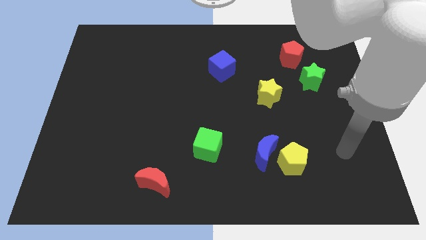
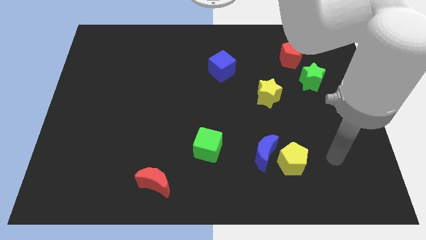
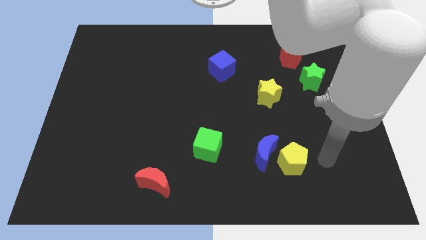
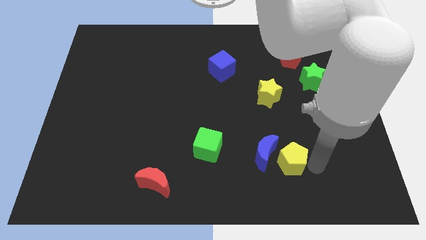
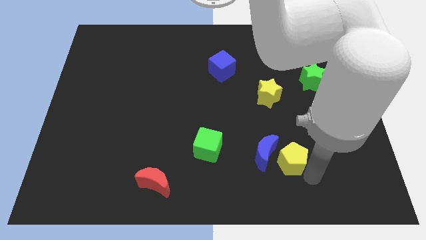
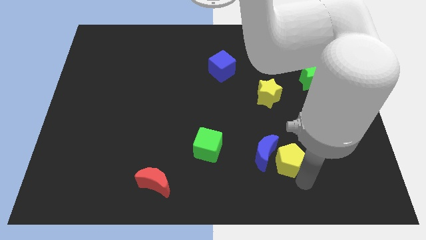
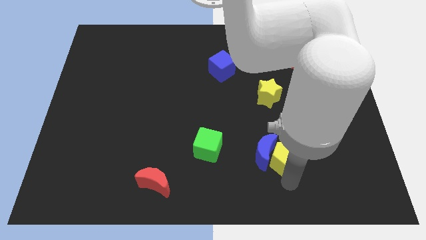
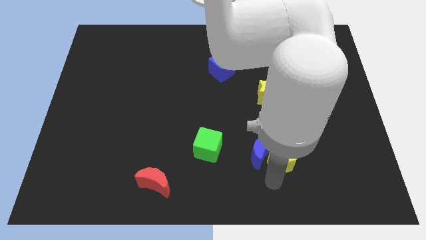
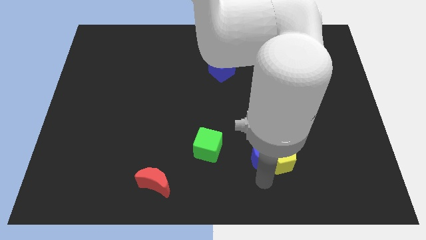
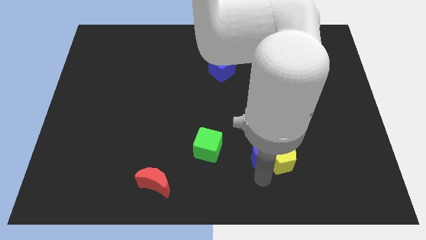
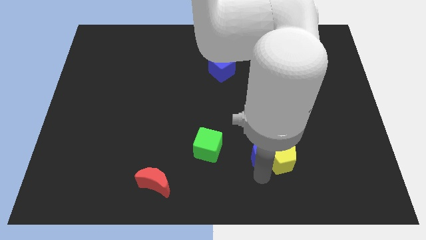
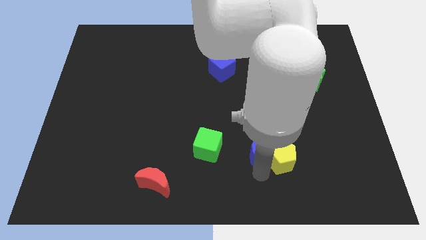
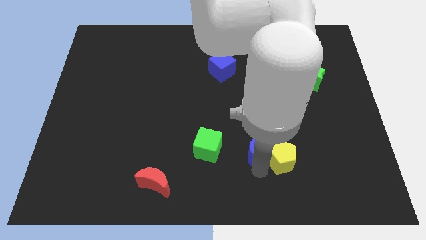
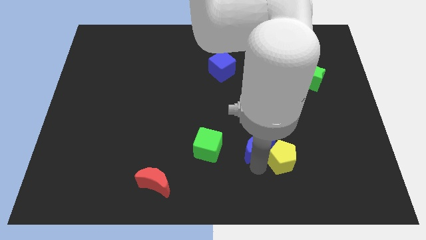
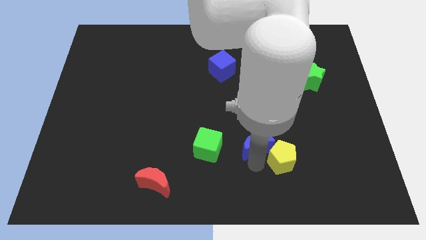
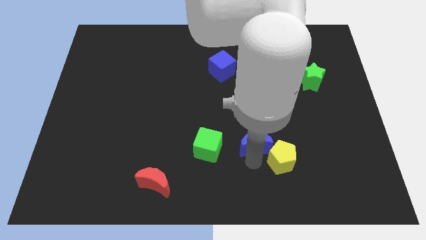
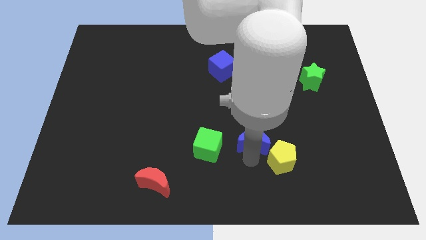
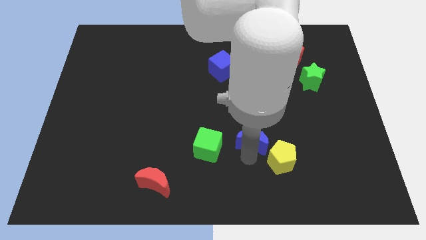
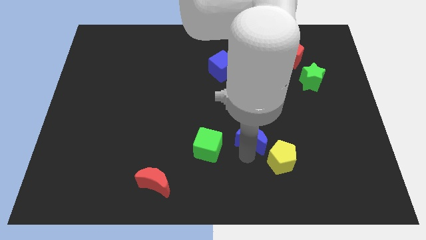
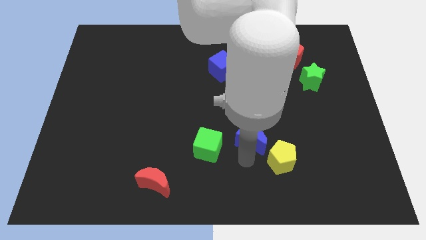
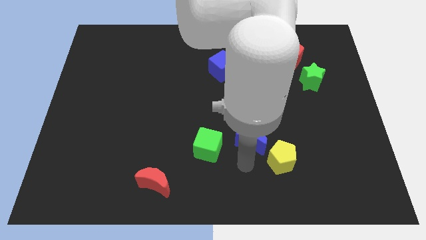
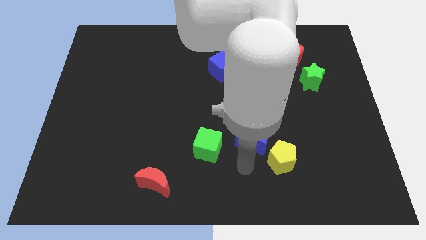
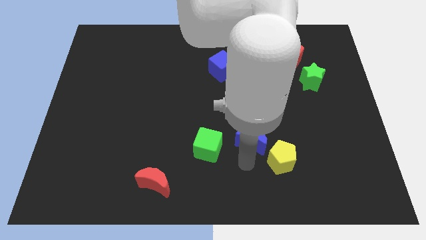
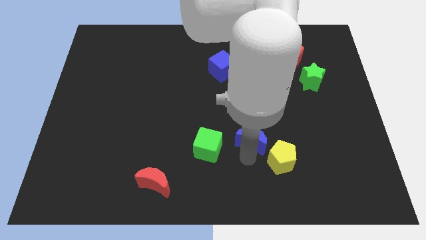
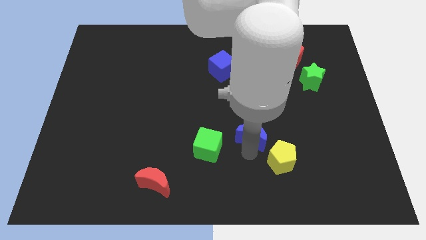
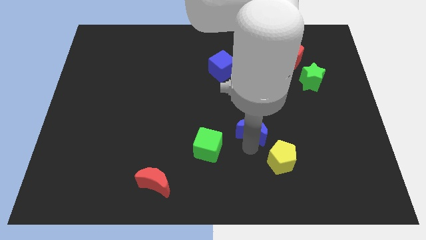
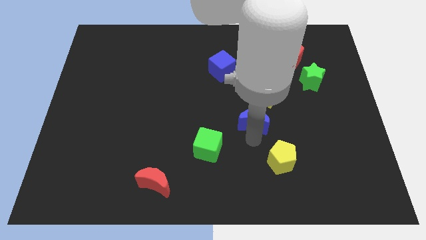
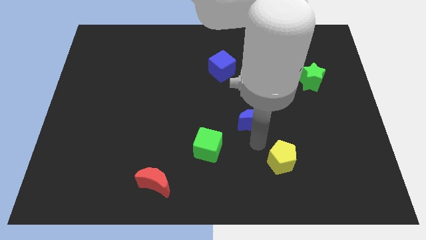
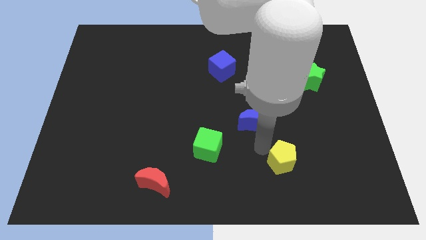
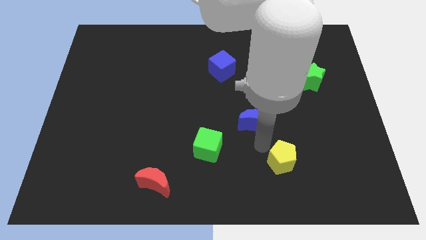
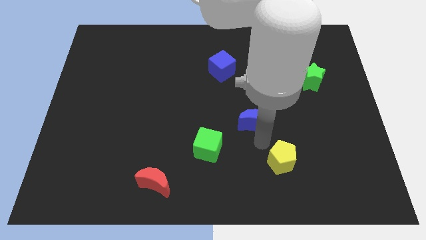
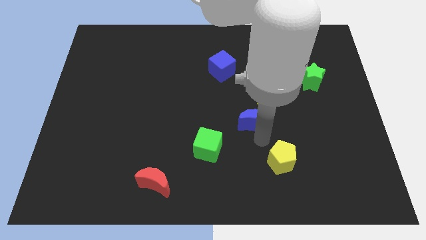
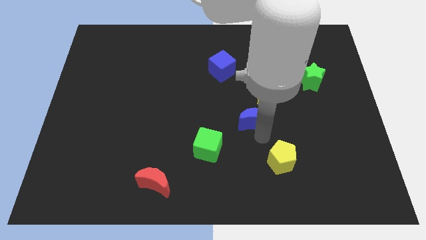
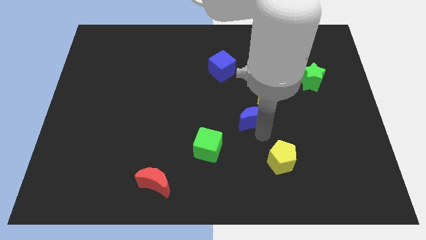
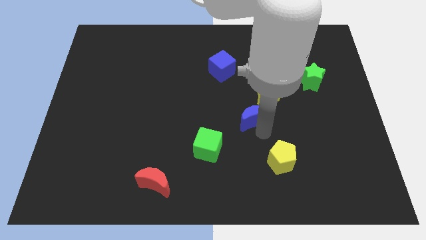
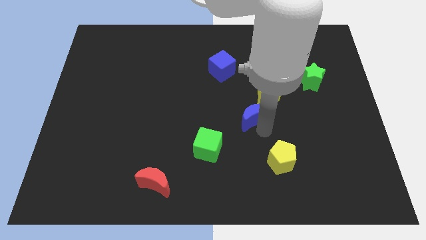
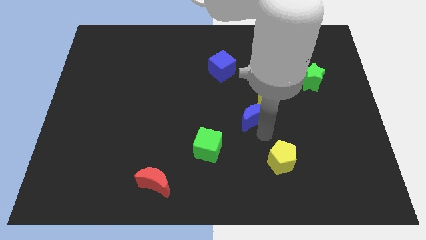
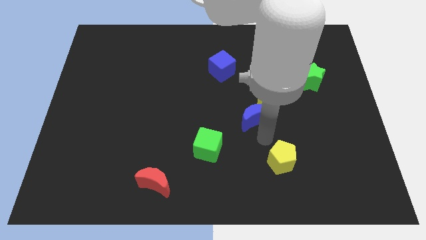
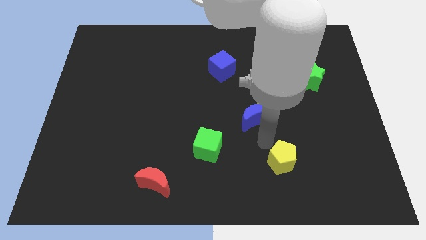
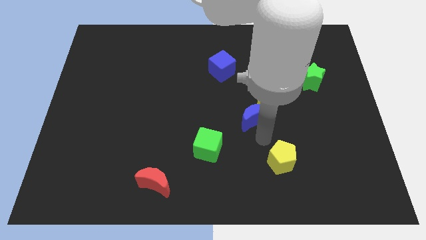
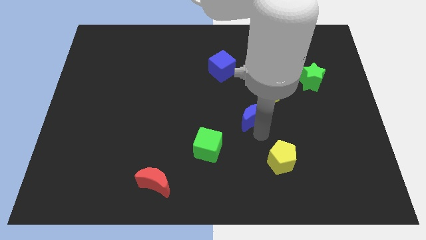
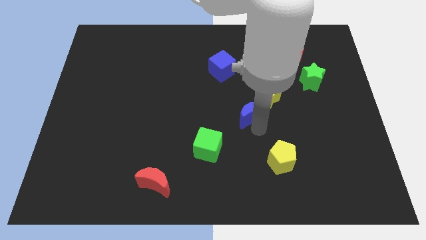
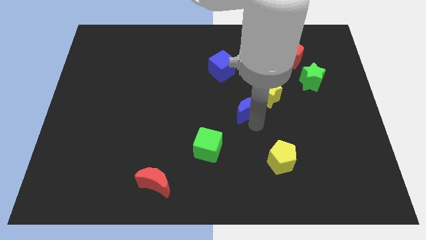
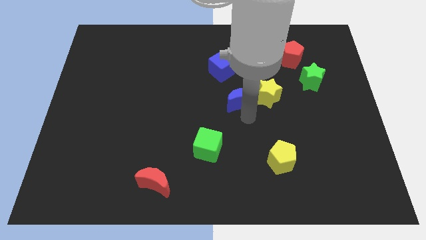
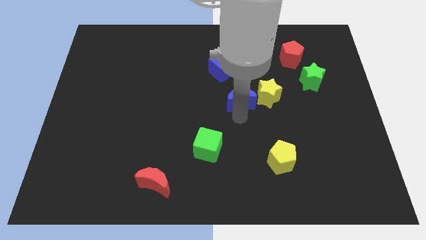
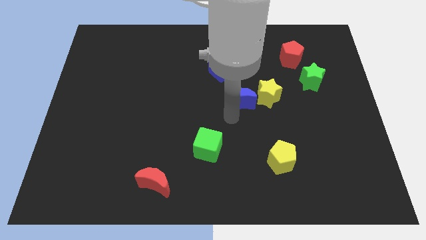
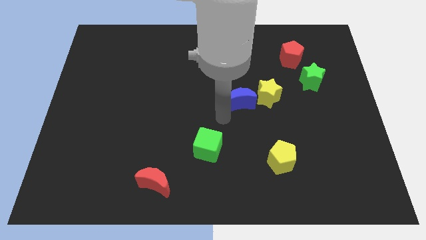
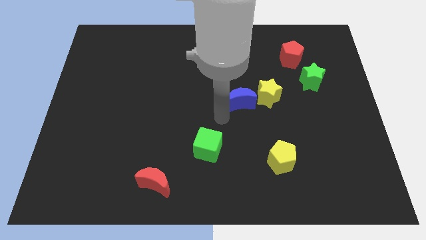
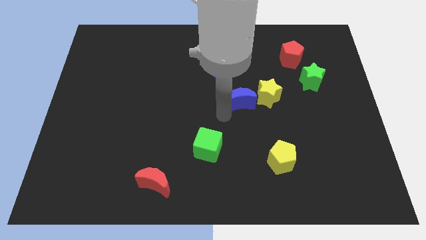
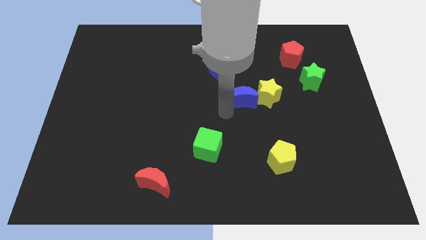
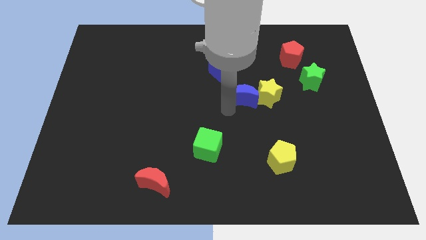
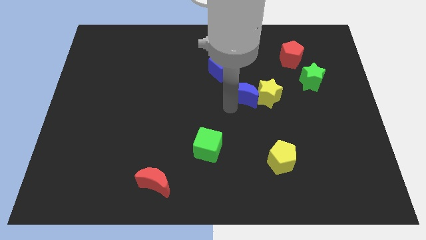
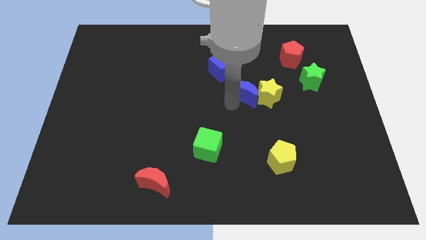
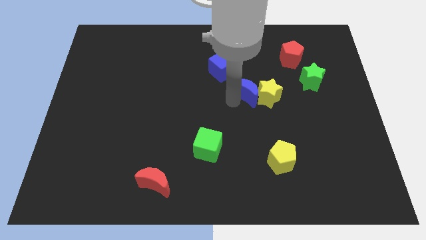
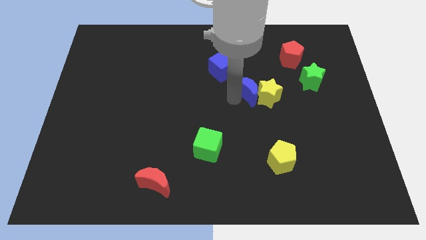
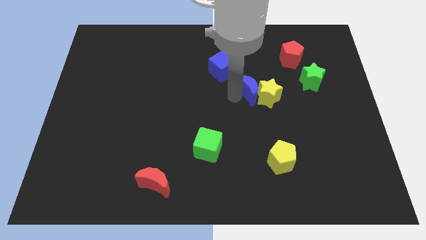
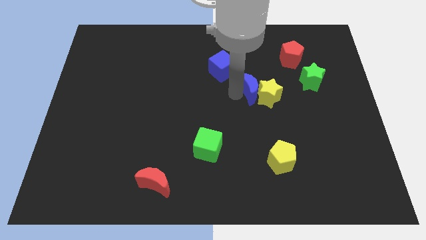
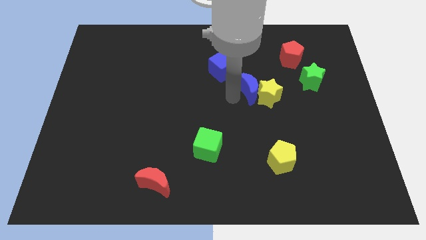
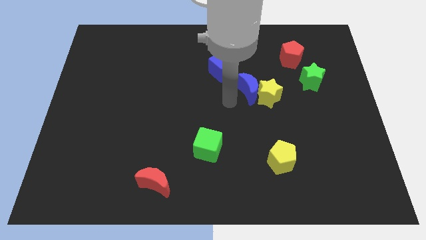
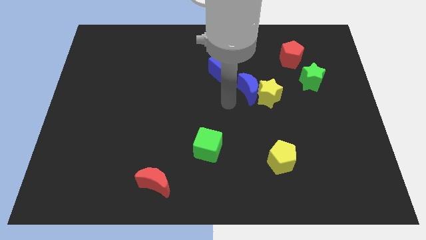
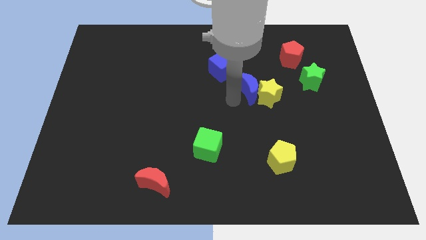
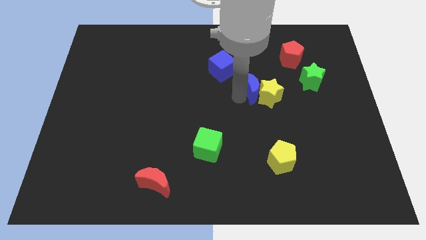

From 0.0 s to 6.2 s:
move the blue moon to the left side of the green star

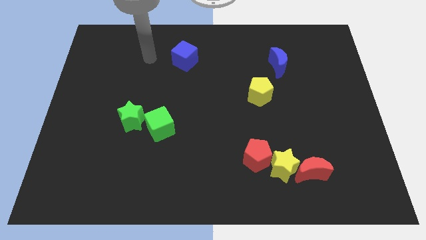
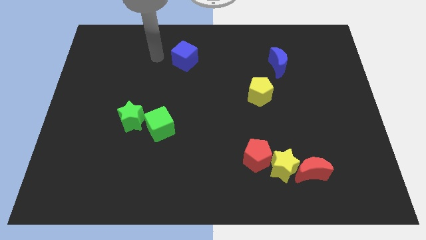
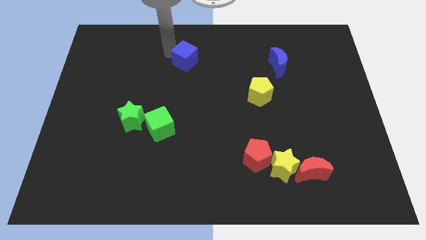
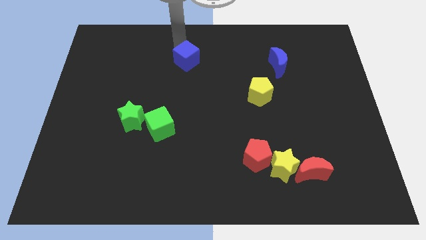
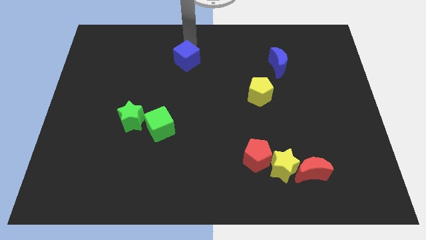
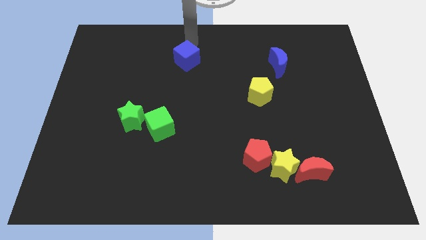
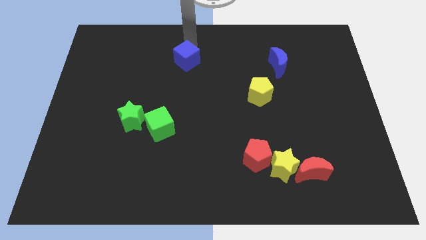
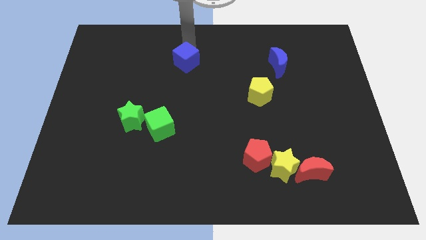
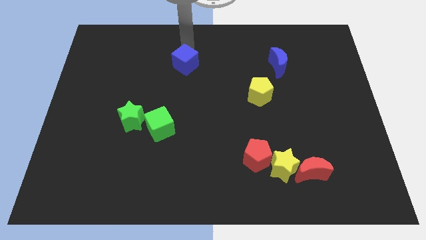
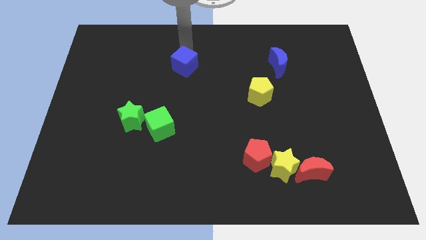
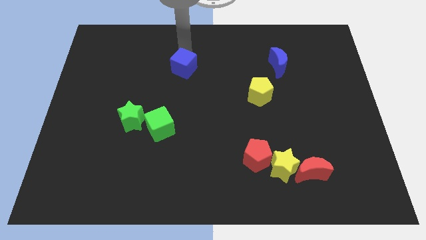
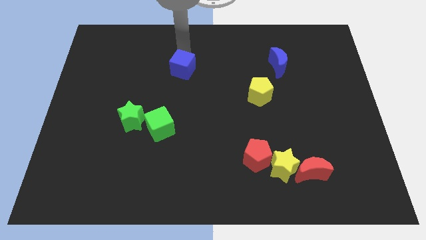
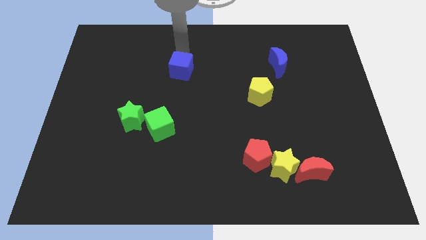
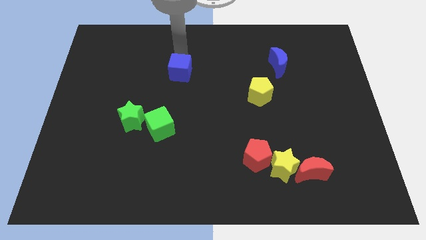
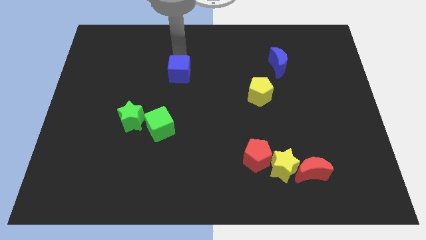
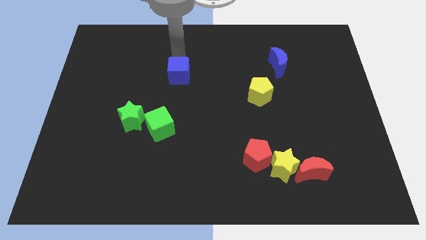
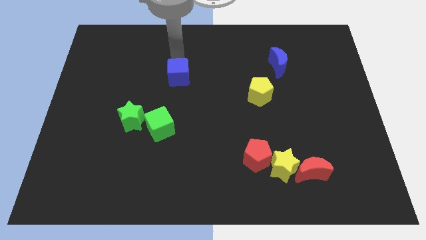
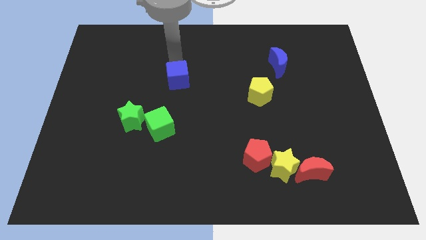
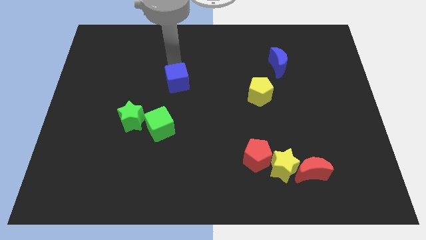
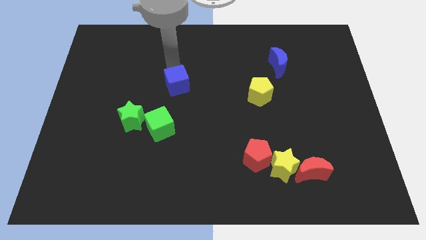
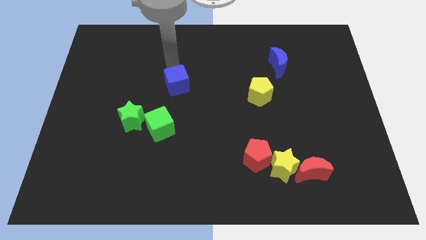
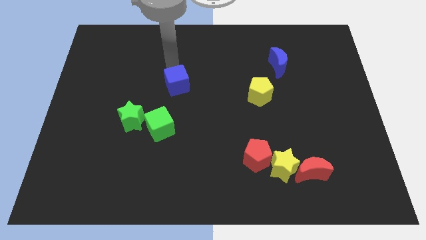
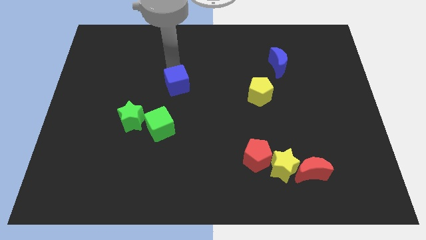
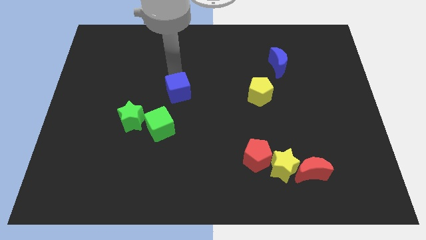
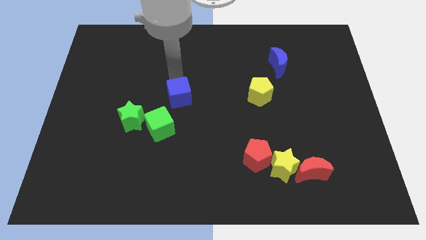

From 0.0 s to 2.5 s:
push the blue cube to the top right of the green cube
